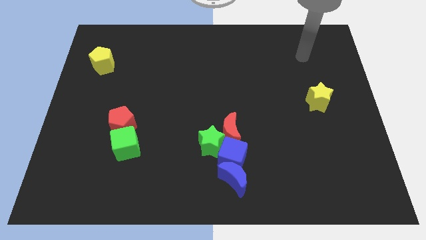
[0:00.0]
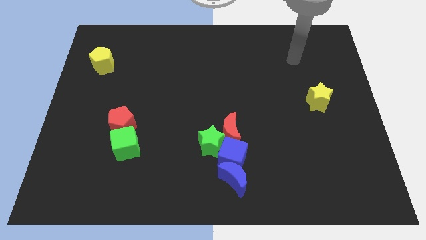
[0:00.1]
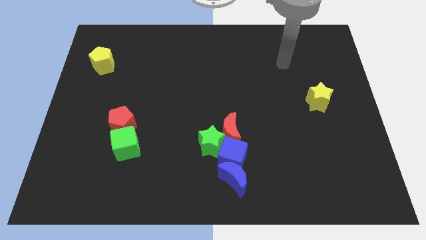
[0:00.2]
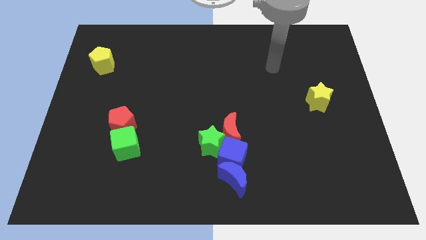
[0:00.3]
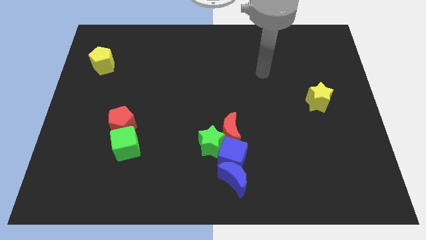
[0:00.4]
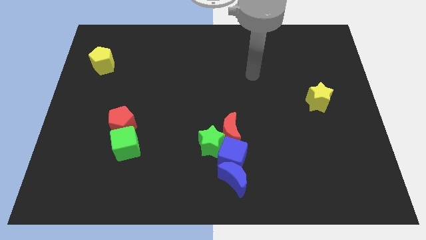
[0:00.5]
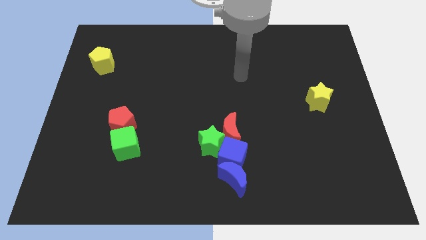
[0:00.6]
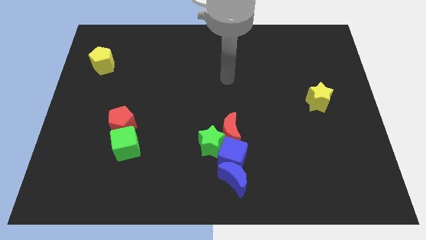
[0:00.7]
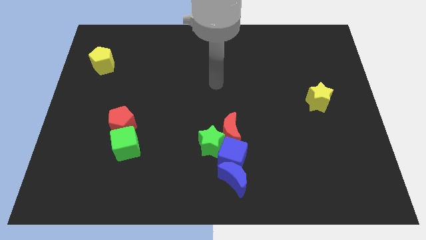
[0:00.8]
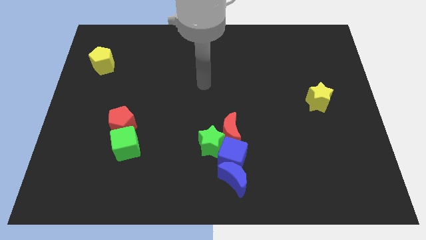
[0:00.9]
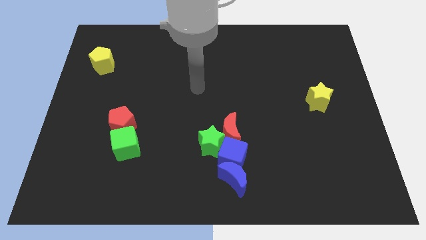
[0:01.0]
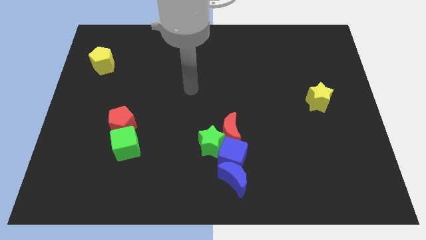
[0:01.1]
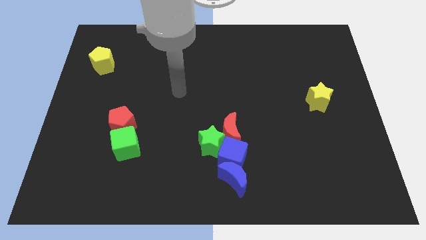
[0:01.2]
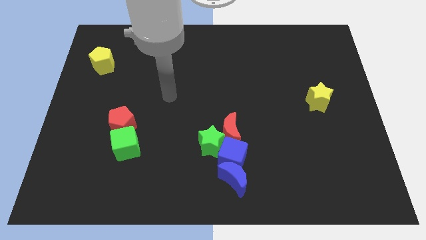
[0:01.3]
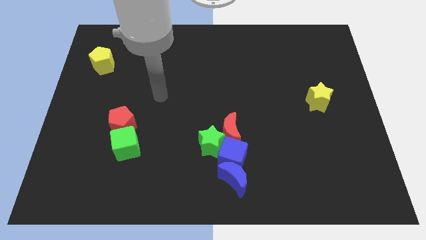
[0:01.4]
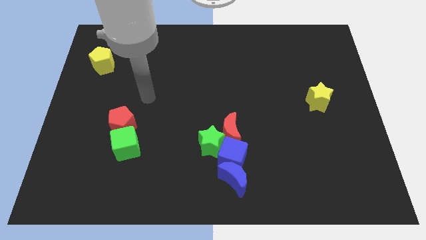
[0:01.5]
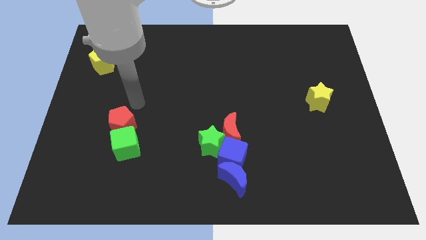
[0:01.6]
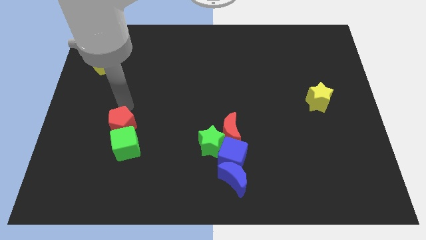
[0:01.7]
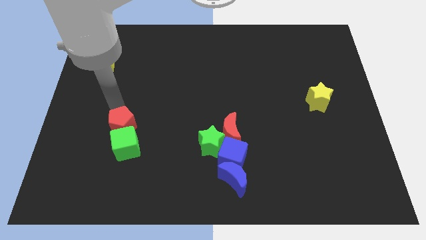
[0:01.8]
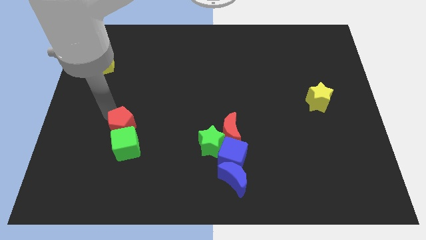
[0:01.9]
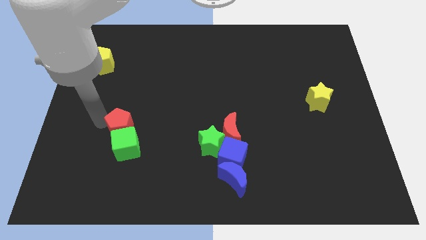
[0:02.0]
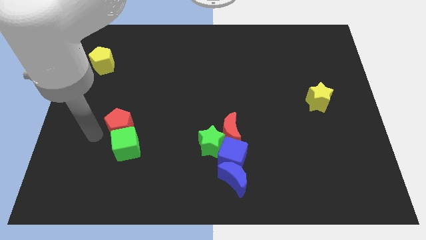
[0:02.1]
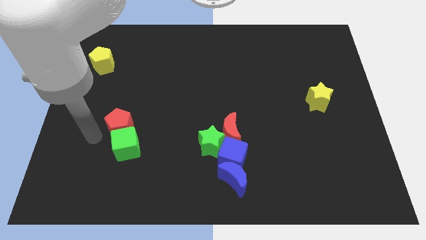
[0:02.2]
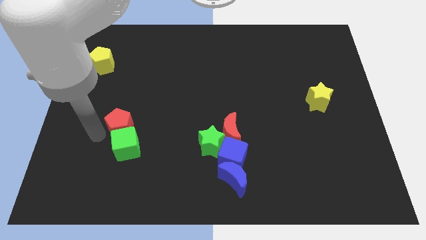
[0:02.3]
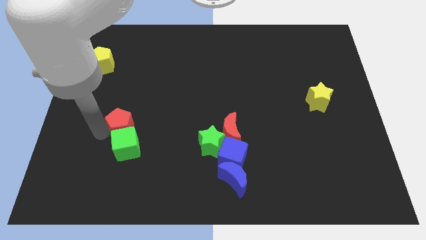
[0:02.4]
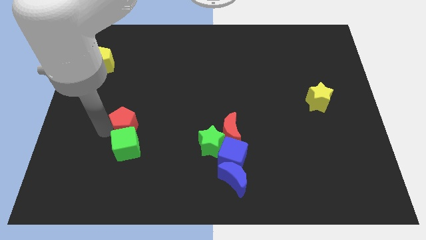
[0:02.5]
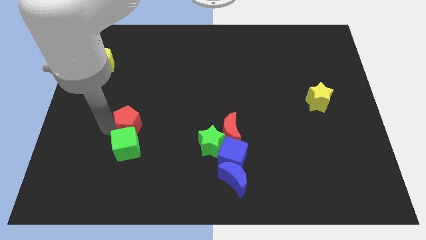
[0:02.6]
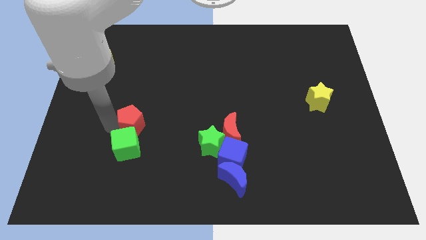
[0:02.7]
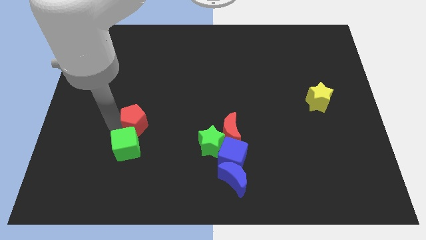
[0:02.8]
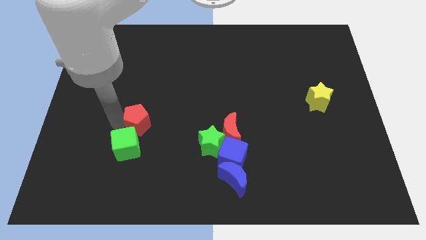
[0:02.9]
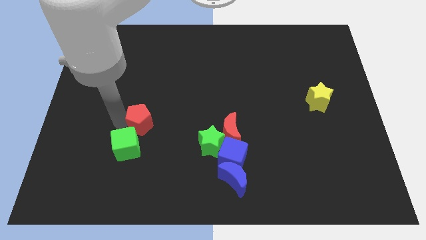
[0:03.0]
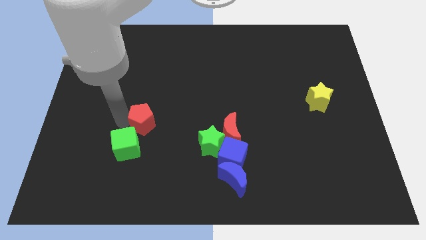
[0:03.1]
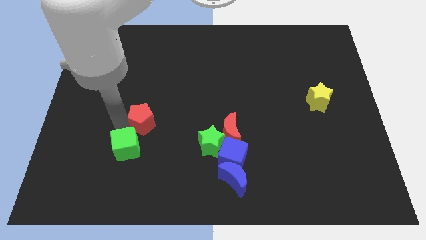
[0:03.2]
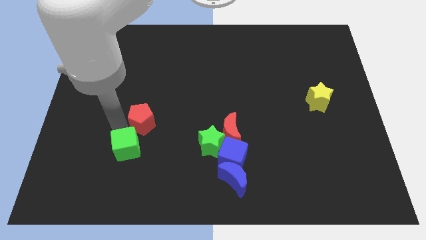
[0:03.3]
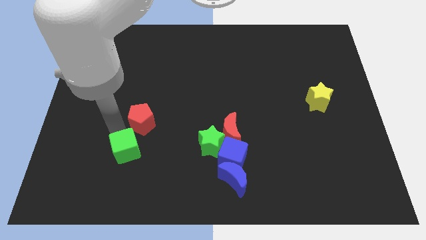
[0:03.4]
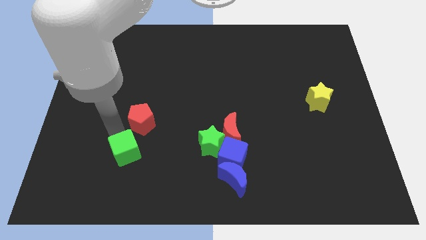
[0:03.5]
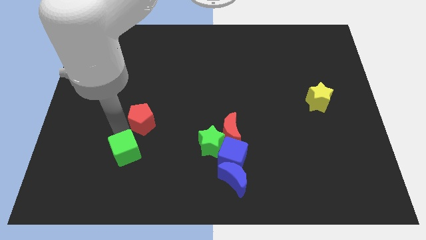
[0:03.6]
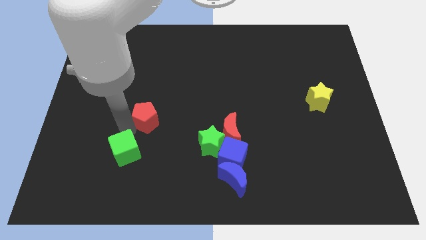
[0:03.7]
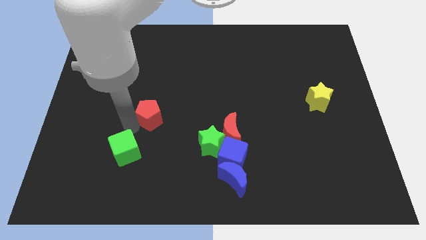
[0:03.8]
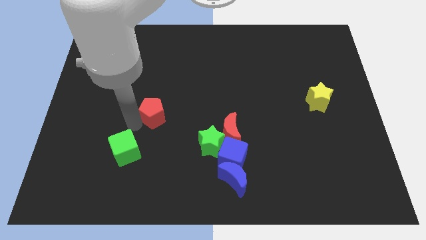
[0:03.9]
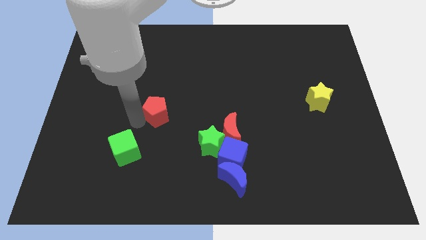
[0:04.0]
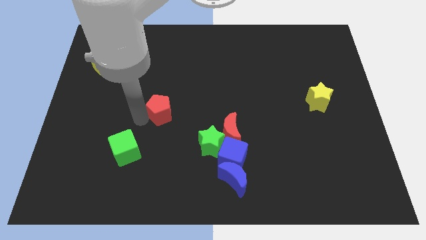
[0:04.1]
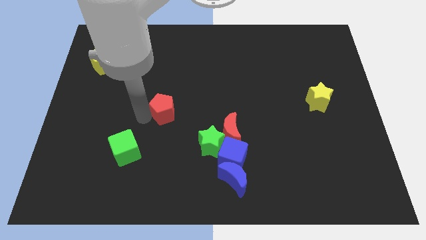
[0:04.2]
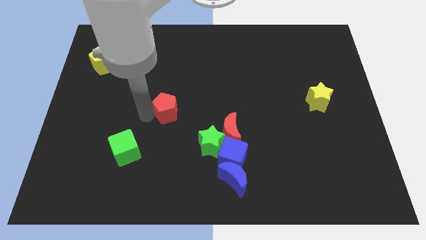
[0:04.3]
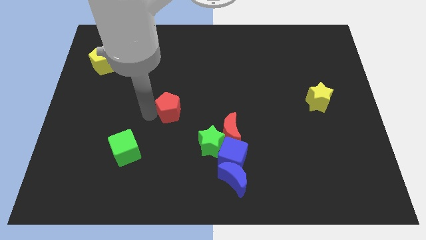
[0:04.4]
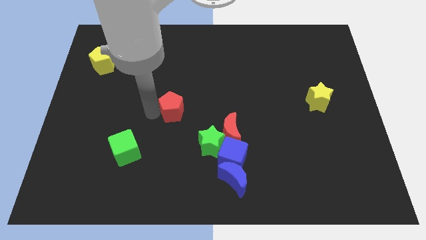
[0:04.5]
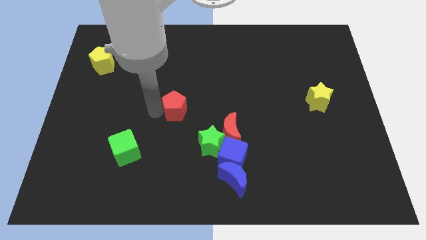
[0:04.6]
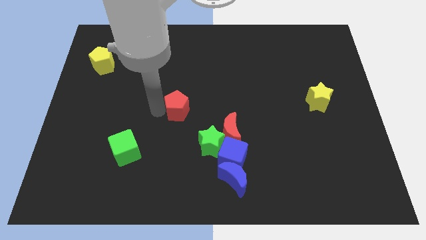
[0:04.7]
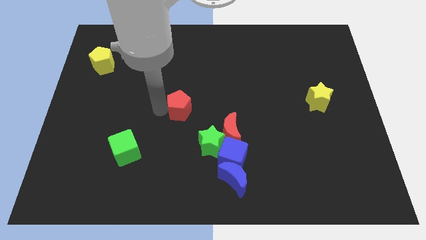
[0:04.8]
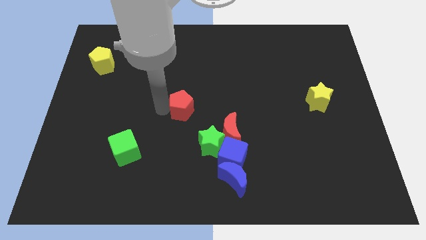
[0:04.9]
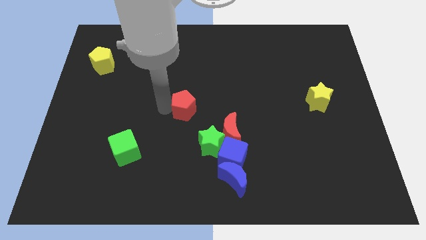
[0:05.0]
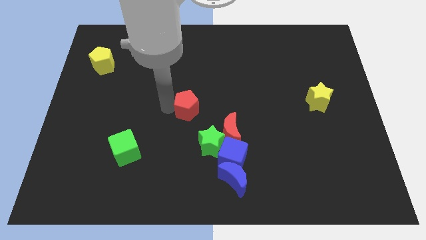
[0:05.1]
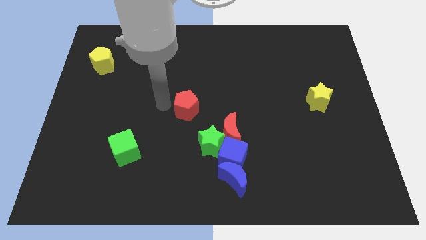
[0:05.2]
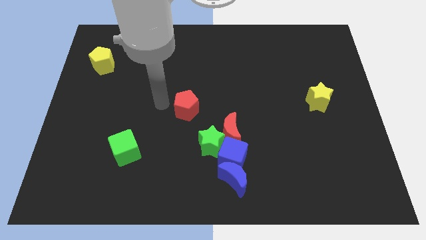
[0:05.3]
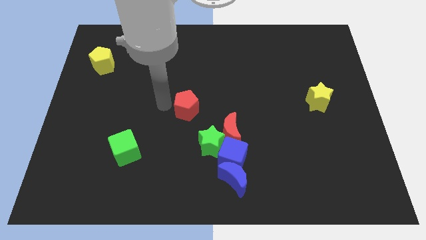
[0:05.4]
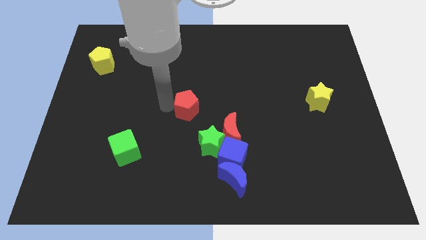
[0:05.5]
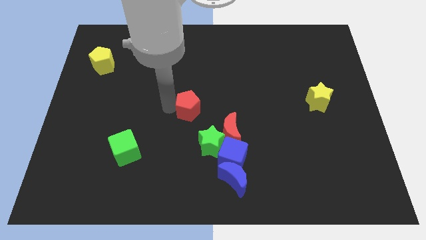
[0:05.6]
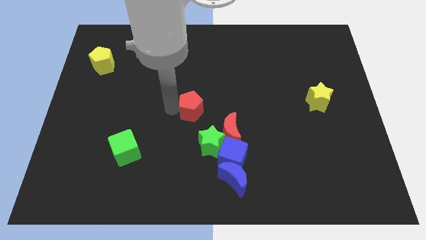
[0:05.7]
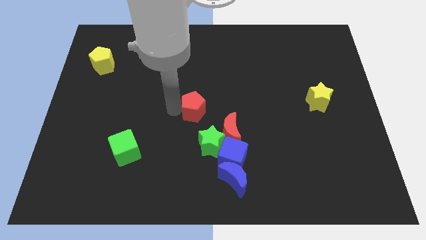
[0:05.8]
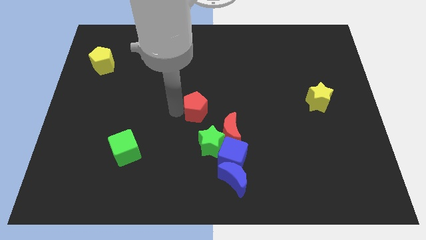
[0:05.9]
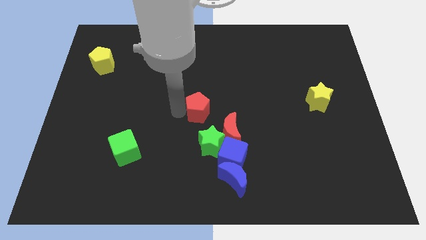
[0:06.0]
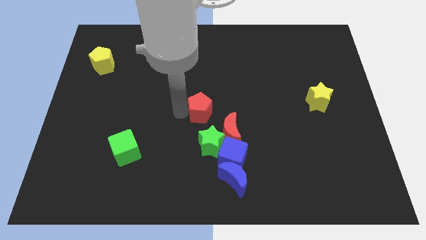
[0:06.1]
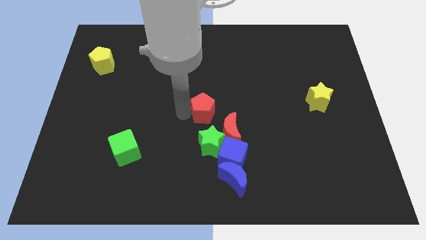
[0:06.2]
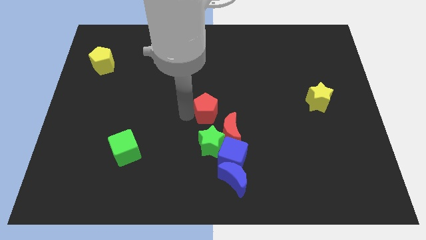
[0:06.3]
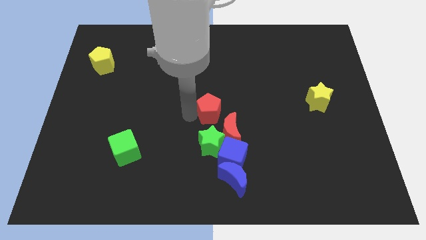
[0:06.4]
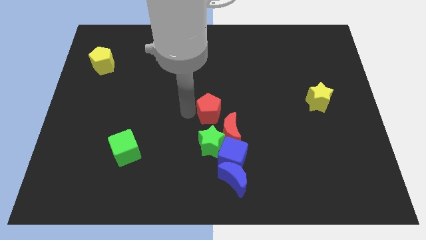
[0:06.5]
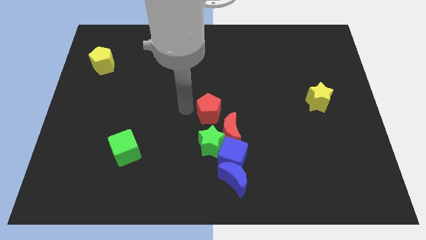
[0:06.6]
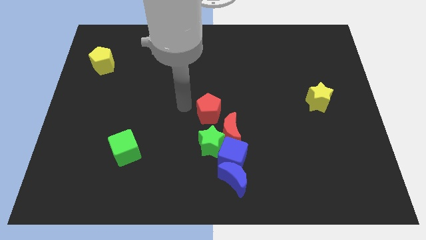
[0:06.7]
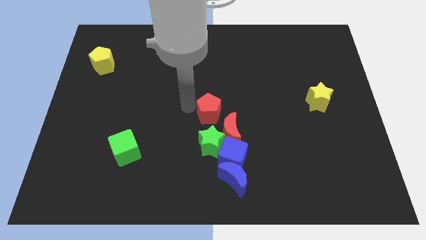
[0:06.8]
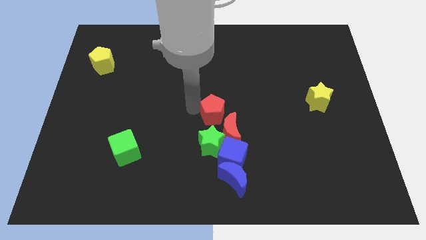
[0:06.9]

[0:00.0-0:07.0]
slide the red pentagon to the right

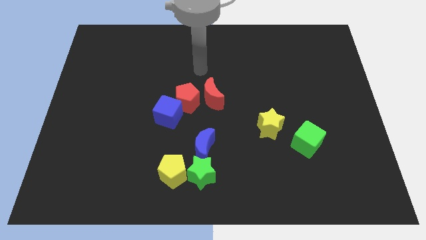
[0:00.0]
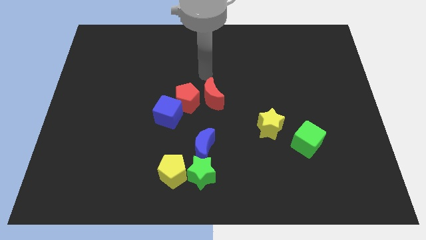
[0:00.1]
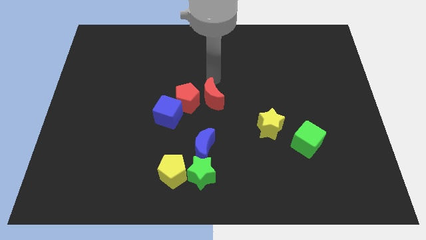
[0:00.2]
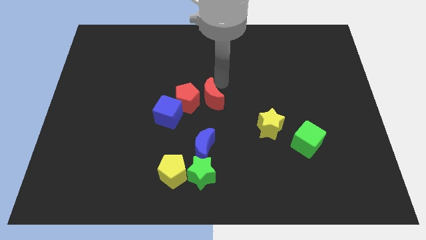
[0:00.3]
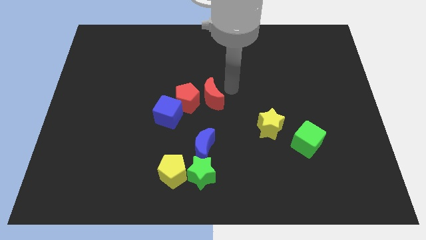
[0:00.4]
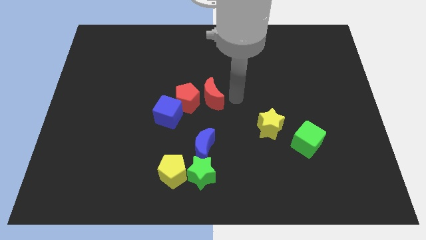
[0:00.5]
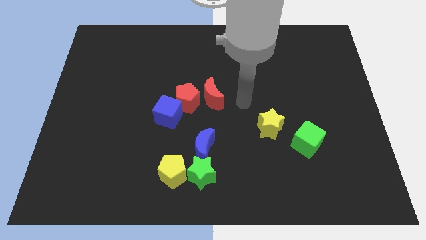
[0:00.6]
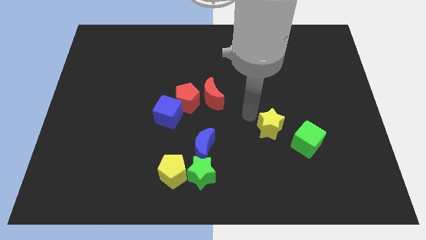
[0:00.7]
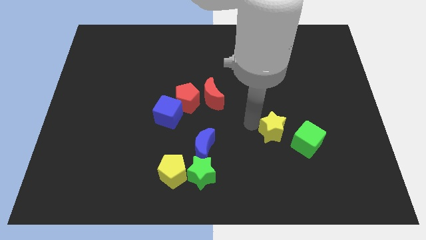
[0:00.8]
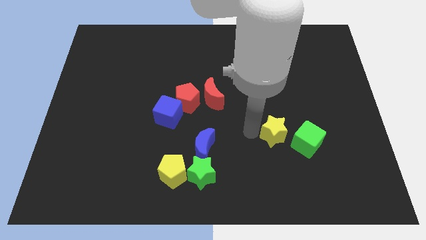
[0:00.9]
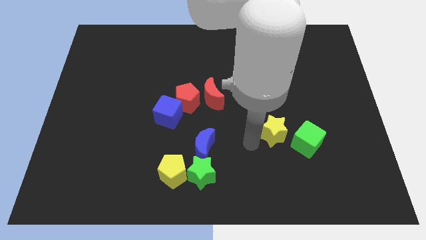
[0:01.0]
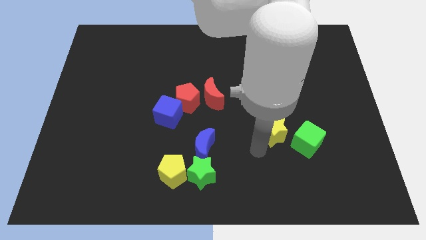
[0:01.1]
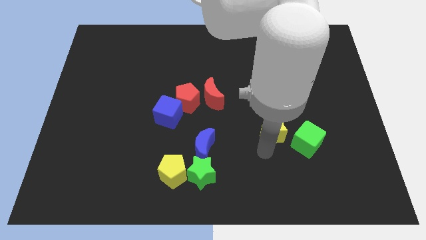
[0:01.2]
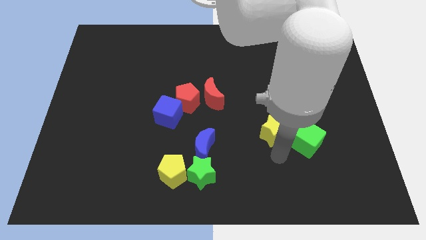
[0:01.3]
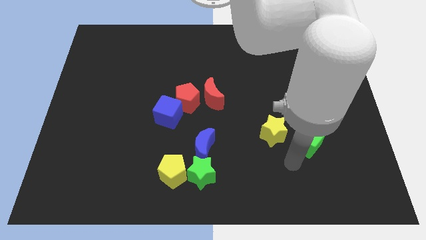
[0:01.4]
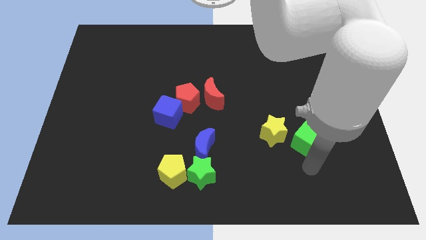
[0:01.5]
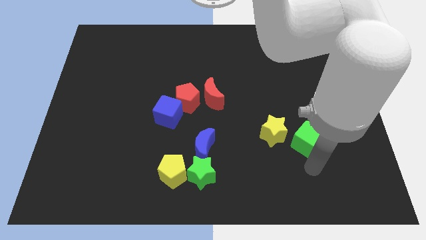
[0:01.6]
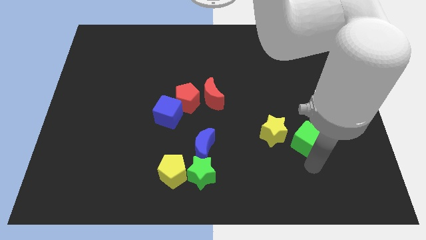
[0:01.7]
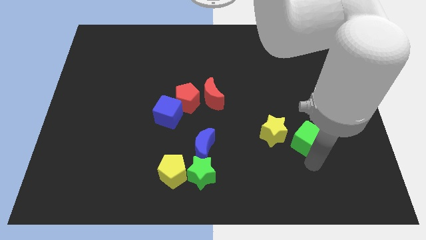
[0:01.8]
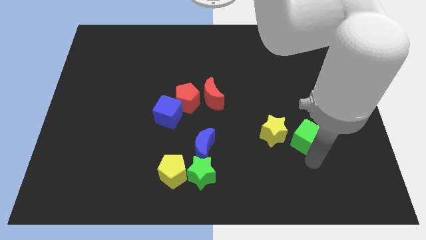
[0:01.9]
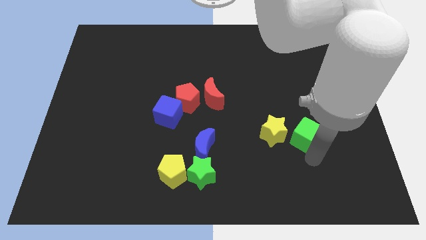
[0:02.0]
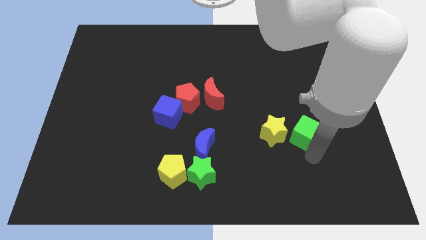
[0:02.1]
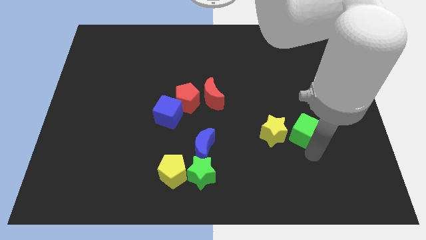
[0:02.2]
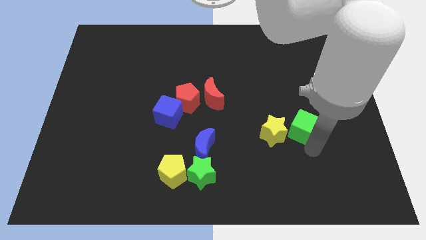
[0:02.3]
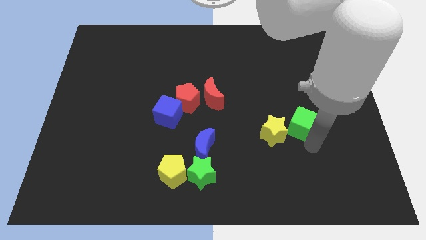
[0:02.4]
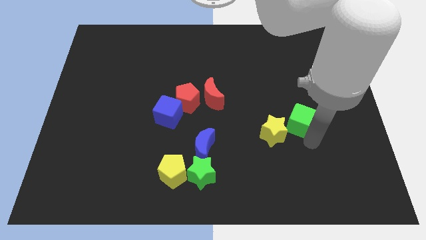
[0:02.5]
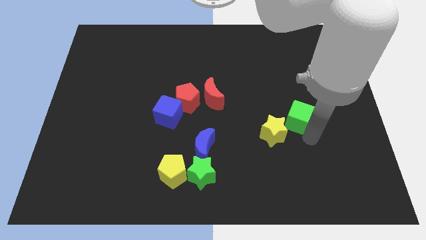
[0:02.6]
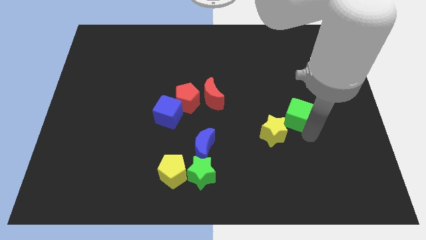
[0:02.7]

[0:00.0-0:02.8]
slightly move the green cube upwards
